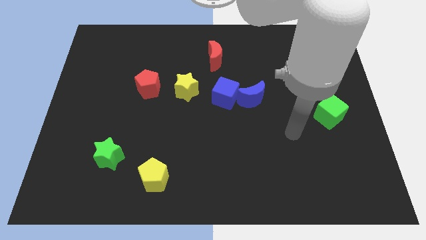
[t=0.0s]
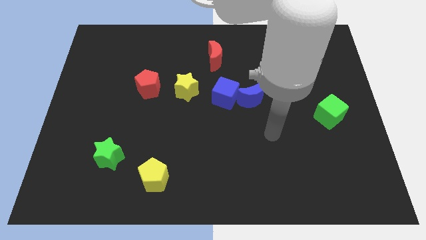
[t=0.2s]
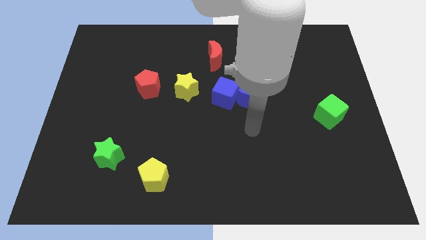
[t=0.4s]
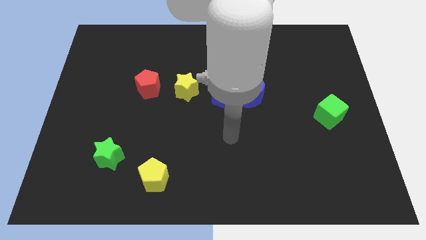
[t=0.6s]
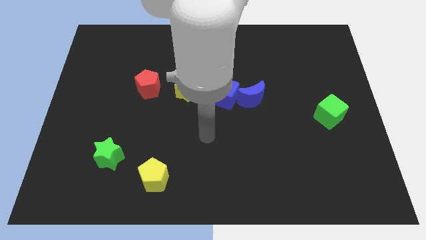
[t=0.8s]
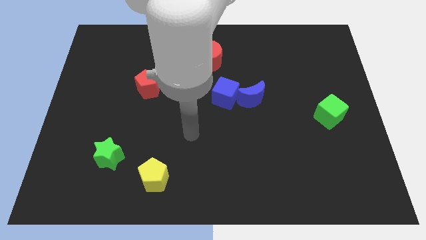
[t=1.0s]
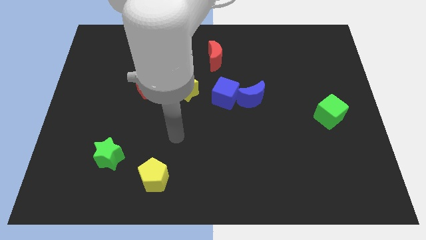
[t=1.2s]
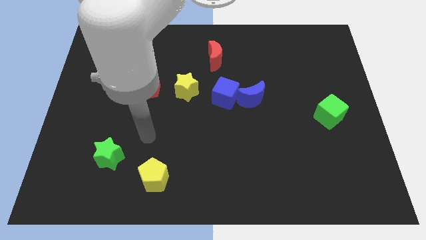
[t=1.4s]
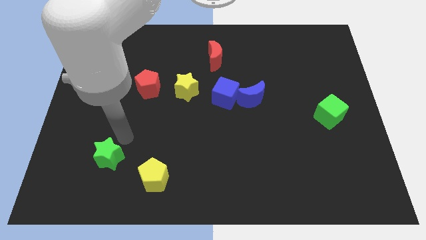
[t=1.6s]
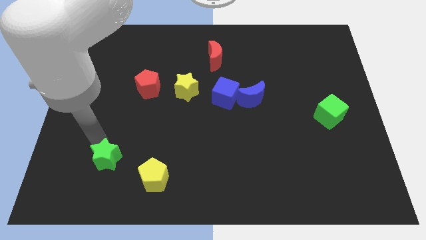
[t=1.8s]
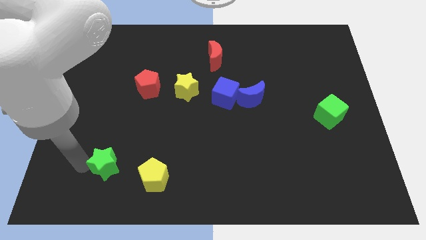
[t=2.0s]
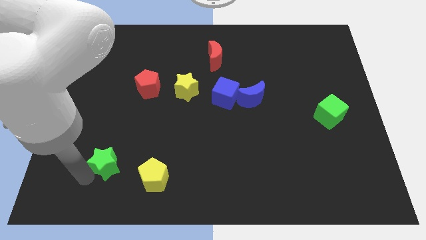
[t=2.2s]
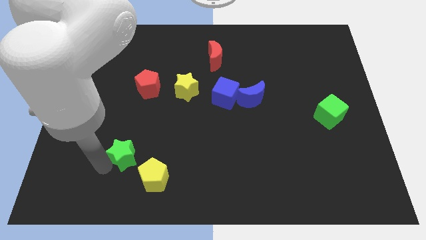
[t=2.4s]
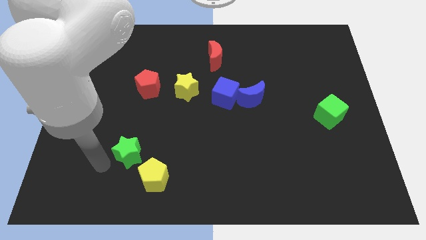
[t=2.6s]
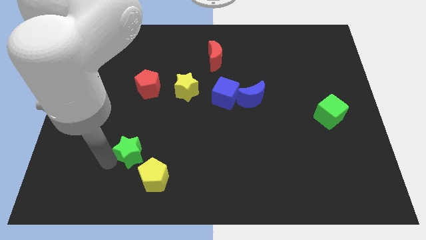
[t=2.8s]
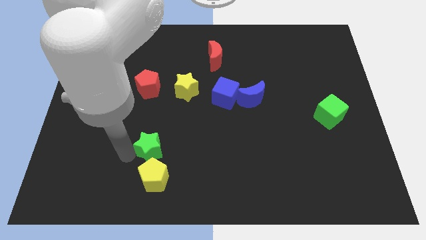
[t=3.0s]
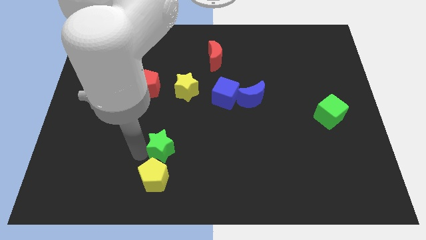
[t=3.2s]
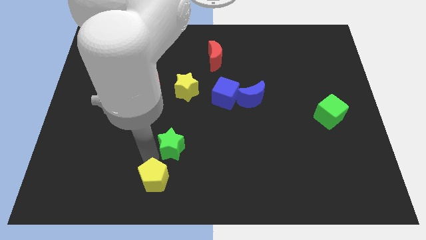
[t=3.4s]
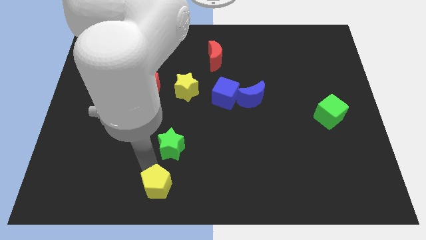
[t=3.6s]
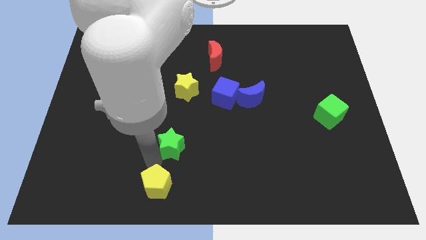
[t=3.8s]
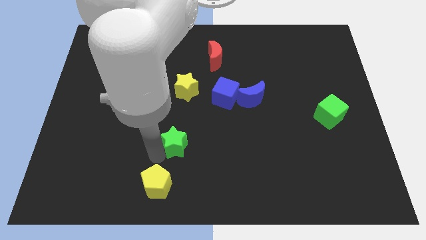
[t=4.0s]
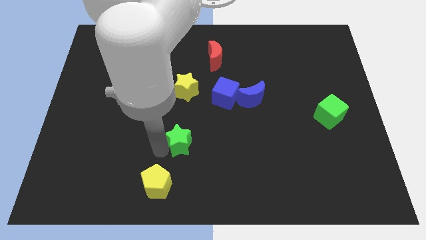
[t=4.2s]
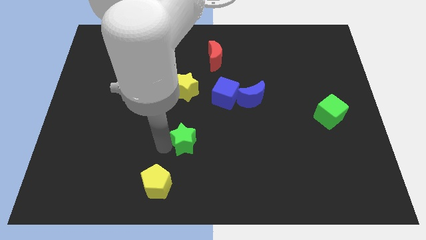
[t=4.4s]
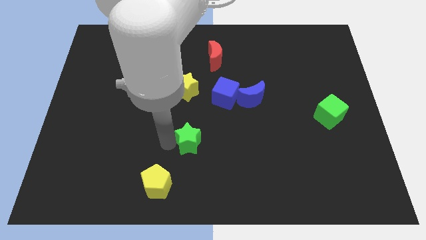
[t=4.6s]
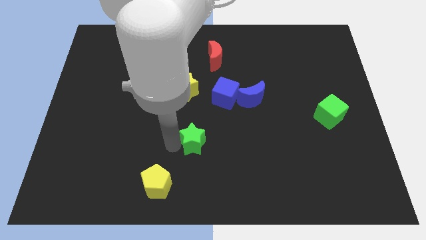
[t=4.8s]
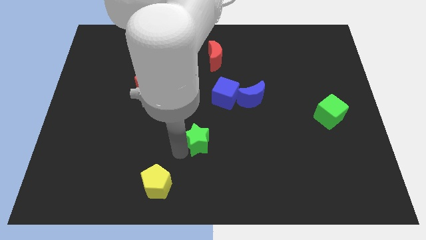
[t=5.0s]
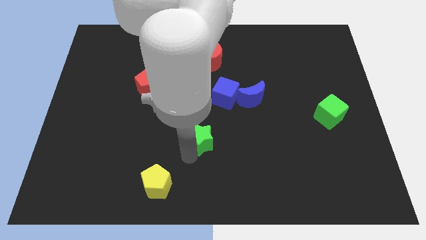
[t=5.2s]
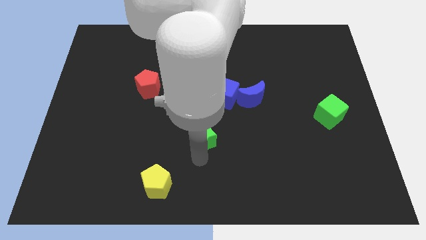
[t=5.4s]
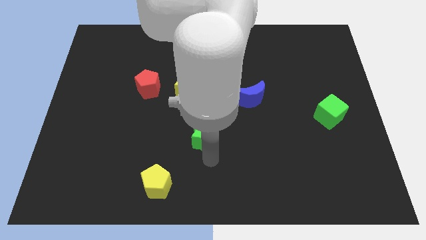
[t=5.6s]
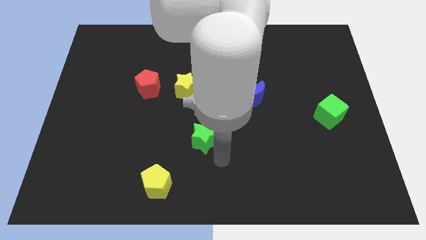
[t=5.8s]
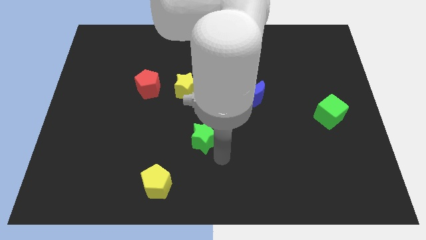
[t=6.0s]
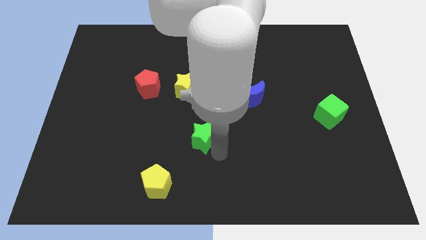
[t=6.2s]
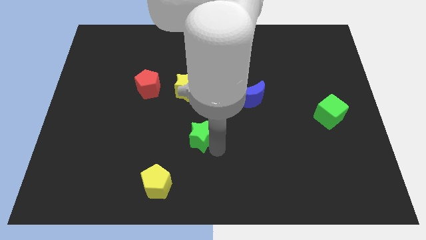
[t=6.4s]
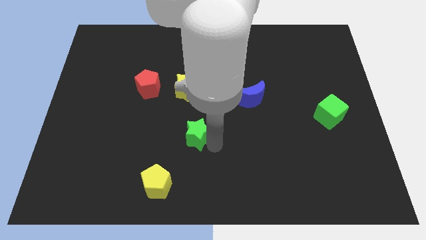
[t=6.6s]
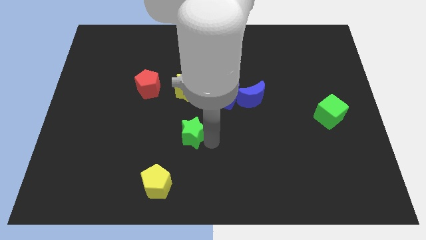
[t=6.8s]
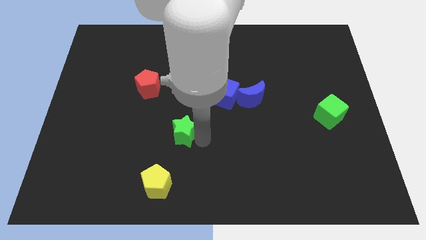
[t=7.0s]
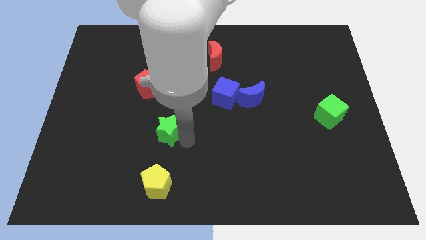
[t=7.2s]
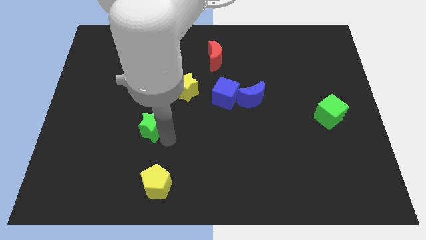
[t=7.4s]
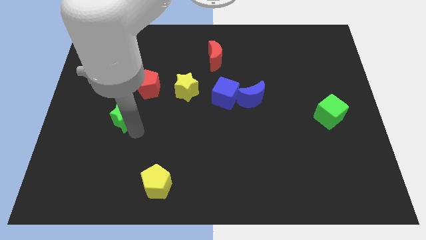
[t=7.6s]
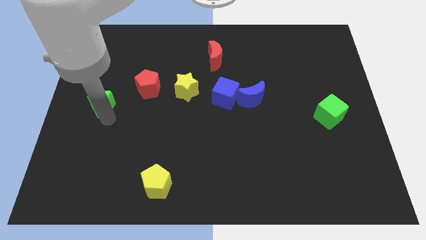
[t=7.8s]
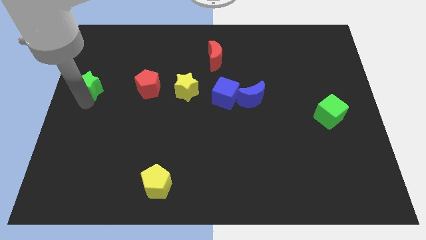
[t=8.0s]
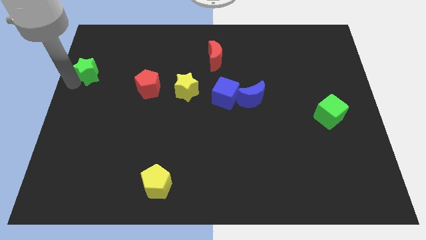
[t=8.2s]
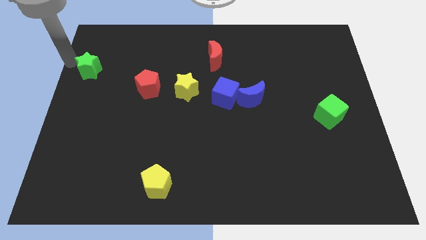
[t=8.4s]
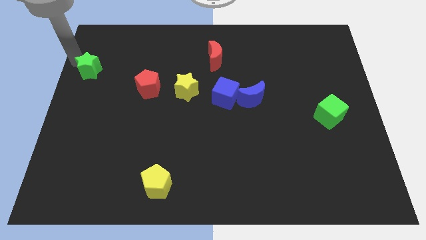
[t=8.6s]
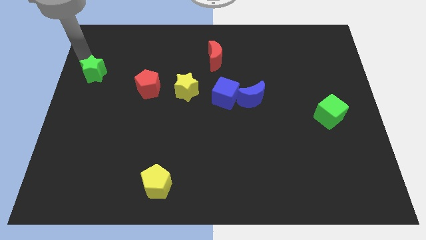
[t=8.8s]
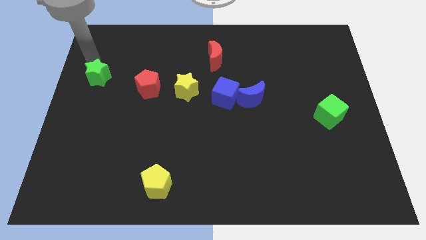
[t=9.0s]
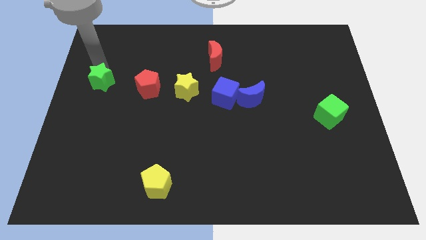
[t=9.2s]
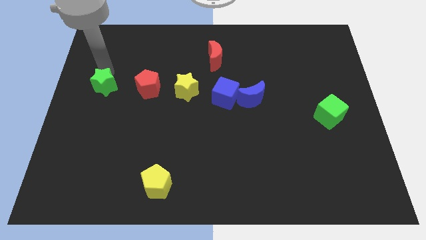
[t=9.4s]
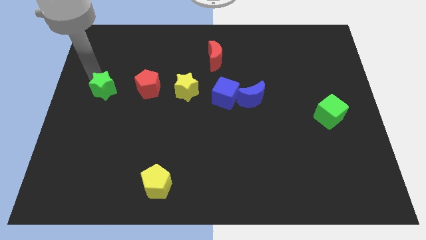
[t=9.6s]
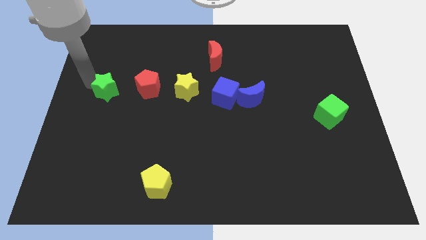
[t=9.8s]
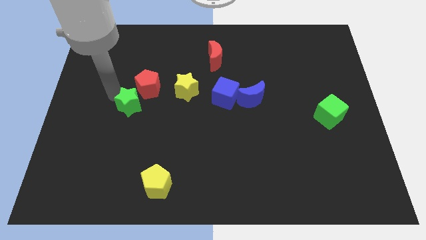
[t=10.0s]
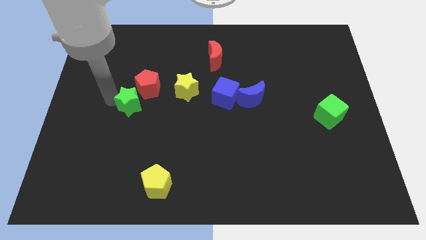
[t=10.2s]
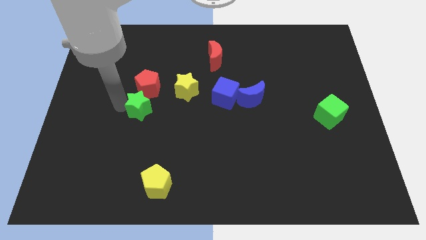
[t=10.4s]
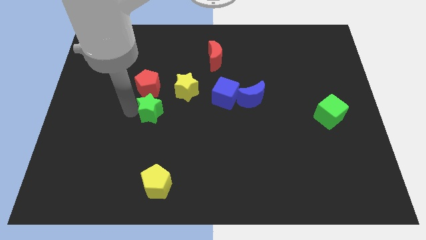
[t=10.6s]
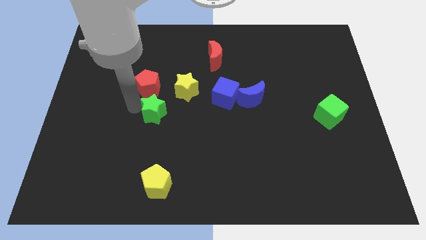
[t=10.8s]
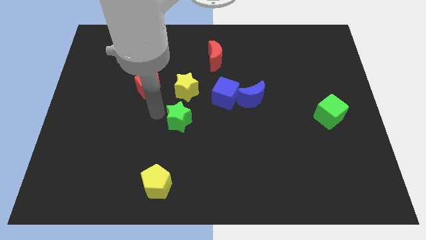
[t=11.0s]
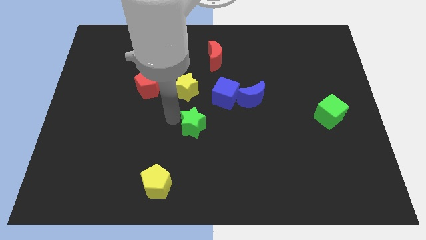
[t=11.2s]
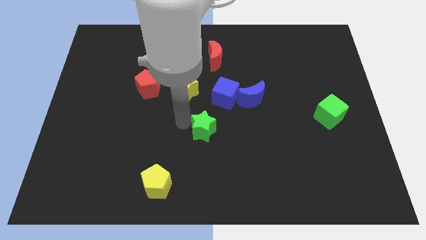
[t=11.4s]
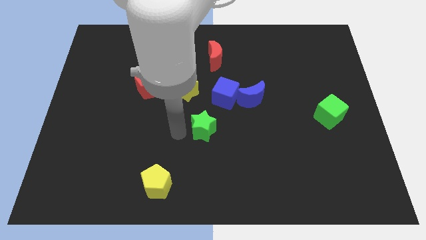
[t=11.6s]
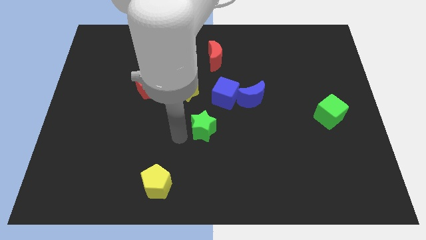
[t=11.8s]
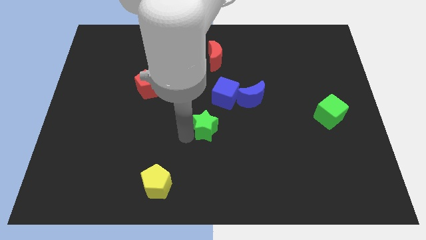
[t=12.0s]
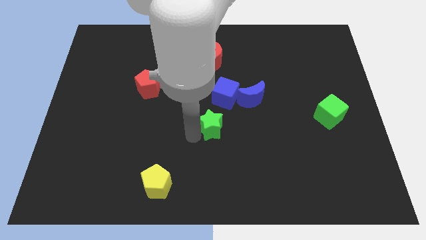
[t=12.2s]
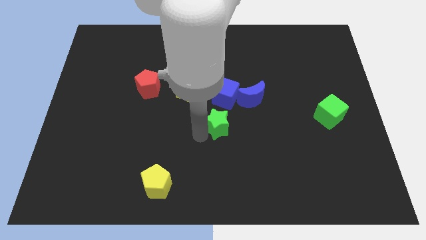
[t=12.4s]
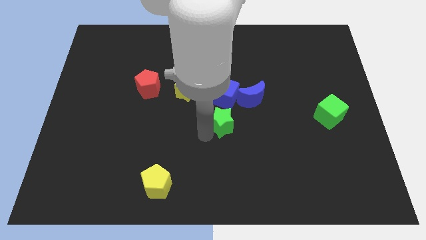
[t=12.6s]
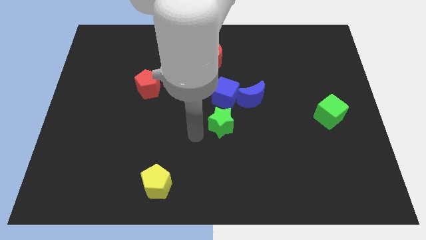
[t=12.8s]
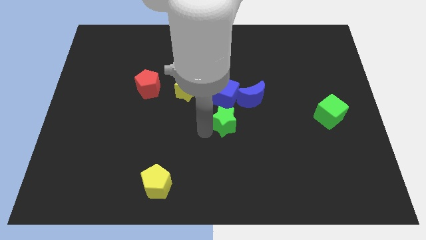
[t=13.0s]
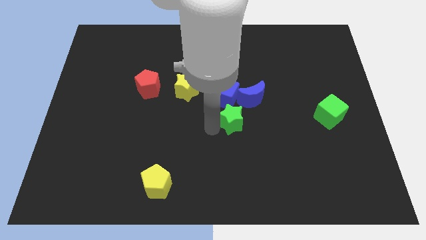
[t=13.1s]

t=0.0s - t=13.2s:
push the green star to the bottom right of the blue cube
